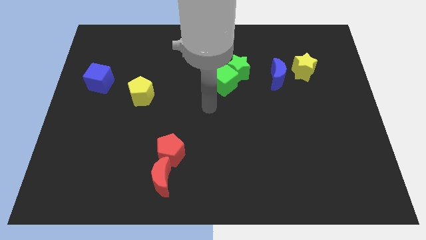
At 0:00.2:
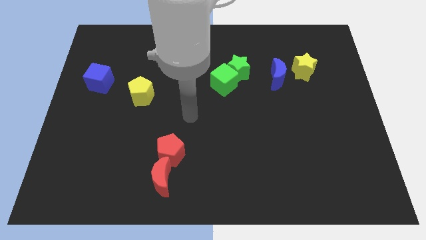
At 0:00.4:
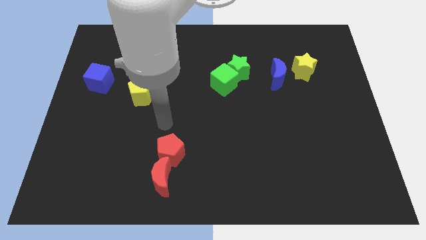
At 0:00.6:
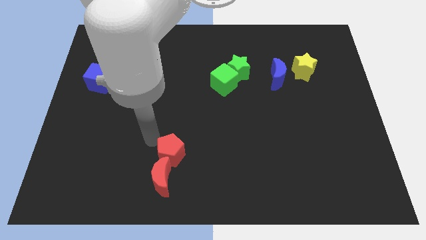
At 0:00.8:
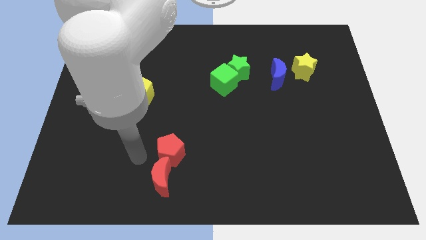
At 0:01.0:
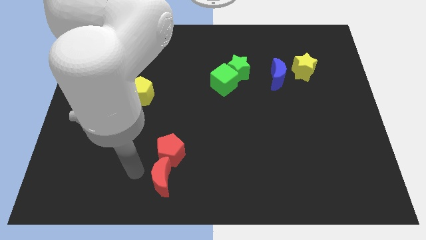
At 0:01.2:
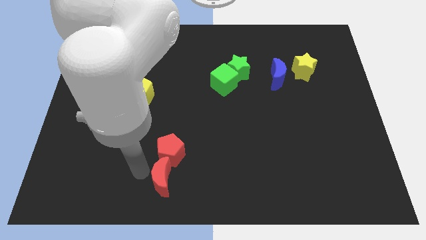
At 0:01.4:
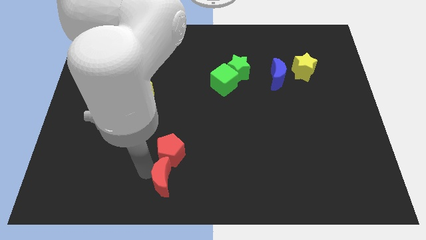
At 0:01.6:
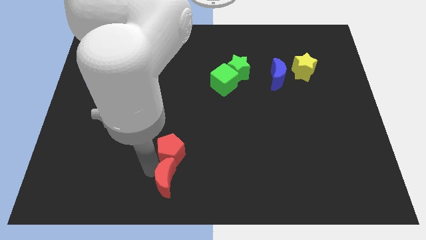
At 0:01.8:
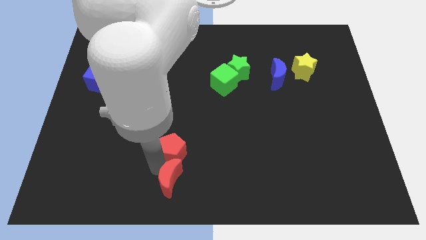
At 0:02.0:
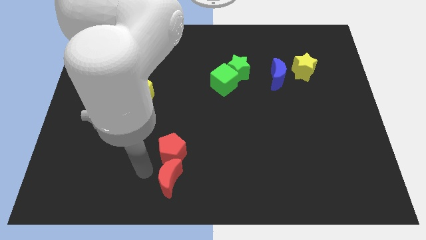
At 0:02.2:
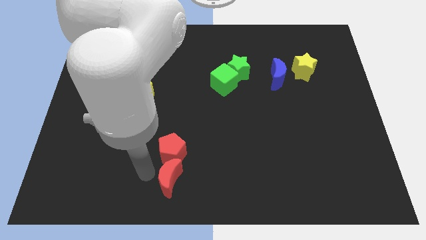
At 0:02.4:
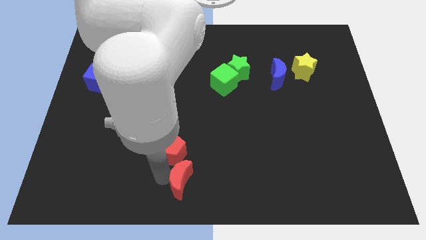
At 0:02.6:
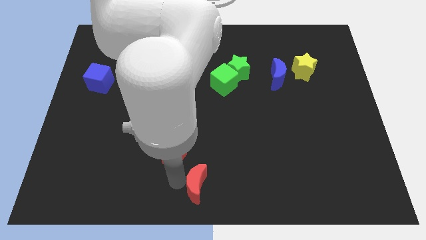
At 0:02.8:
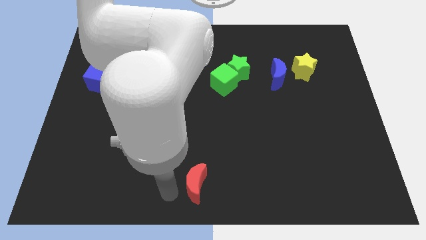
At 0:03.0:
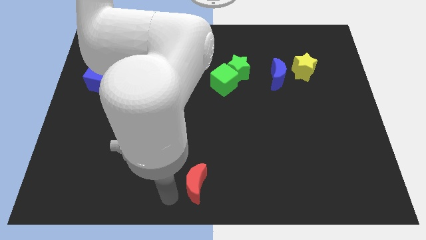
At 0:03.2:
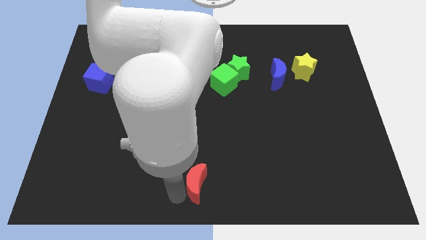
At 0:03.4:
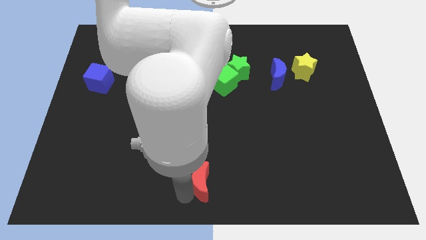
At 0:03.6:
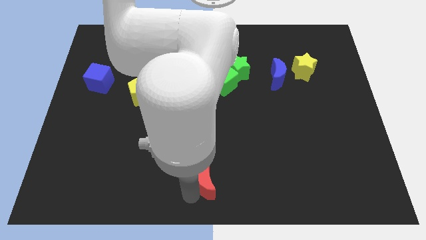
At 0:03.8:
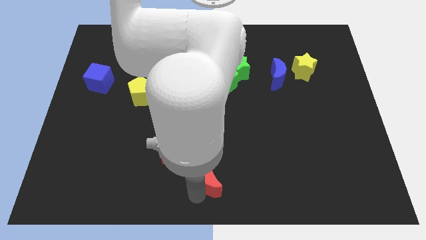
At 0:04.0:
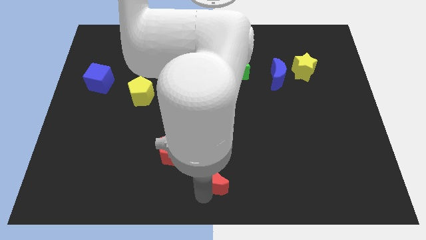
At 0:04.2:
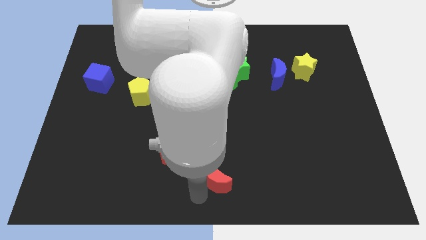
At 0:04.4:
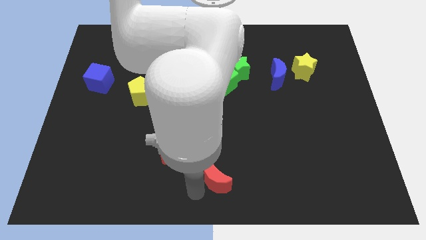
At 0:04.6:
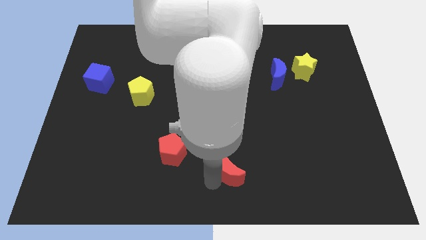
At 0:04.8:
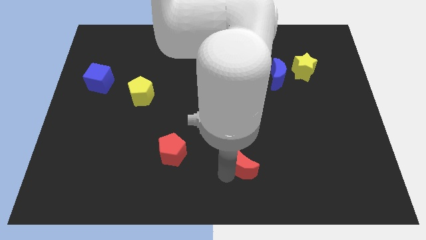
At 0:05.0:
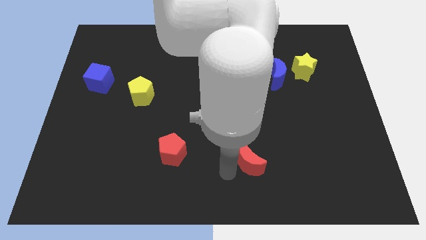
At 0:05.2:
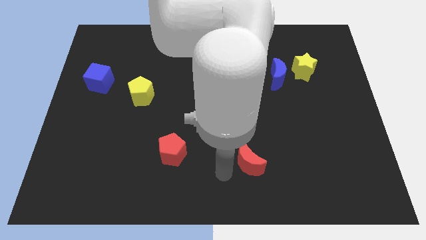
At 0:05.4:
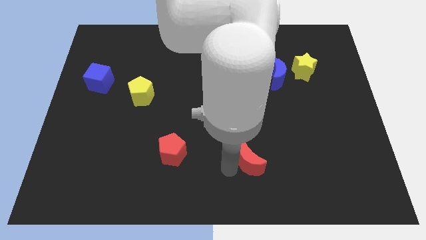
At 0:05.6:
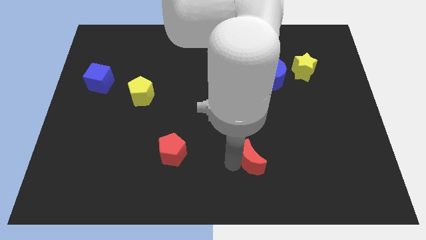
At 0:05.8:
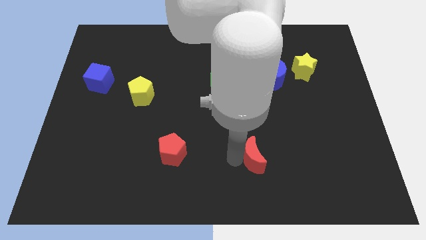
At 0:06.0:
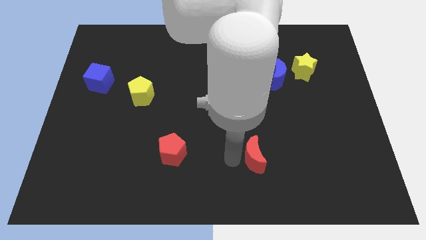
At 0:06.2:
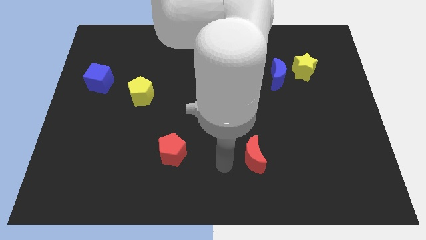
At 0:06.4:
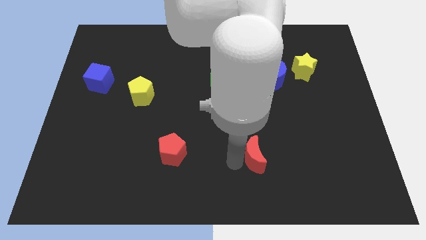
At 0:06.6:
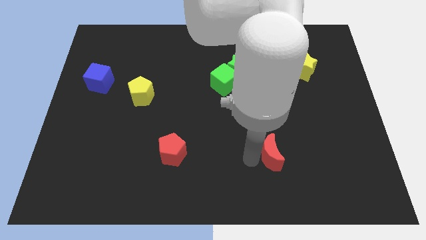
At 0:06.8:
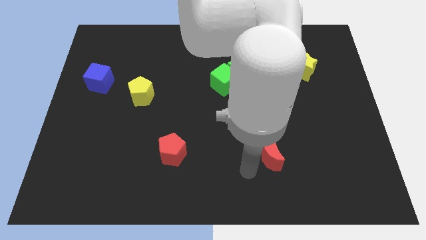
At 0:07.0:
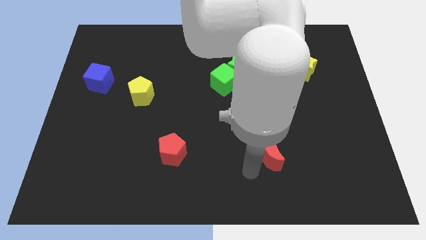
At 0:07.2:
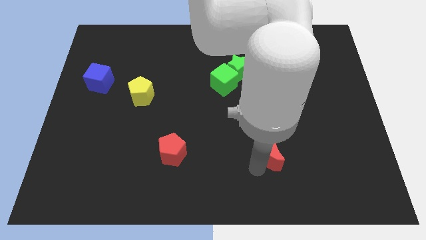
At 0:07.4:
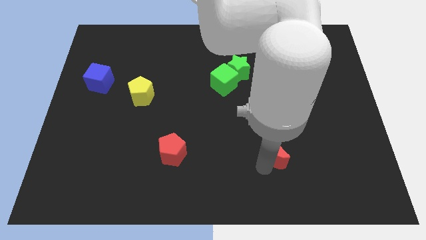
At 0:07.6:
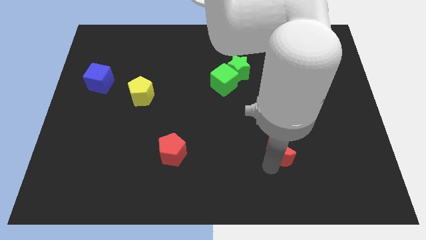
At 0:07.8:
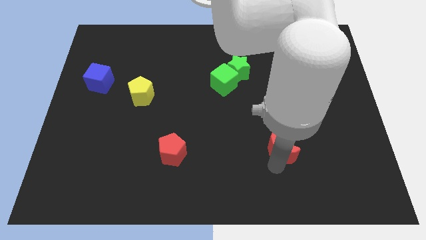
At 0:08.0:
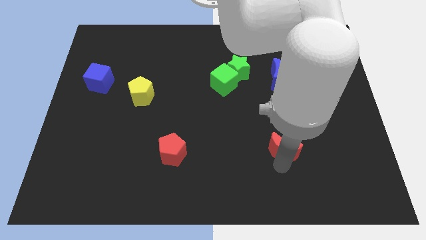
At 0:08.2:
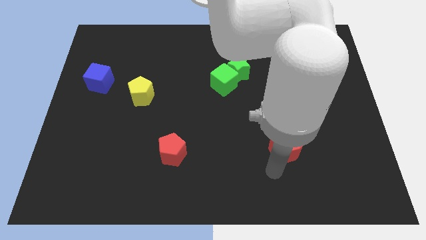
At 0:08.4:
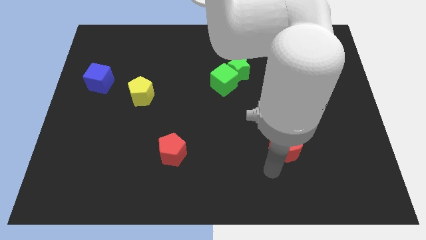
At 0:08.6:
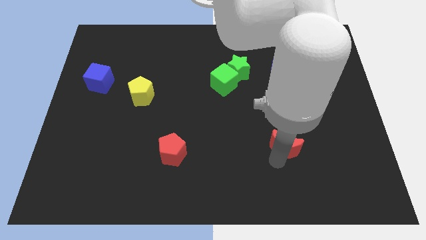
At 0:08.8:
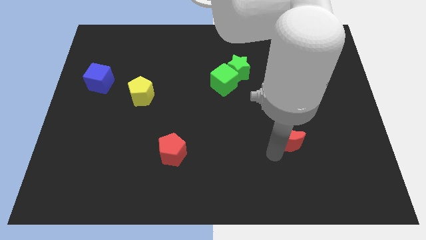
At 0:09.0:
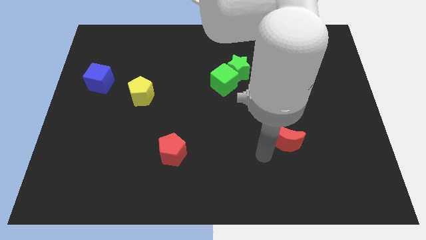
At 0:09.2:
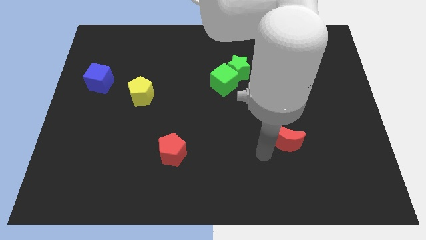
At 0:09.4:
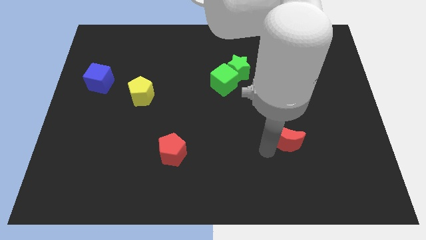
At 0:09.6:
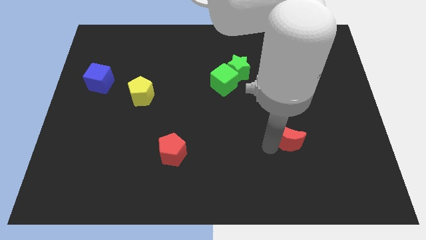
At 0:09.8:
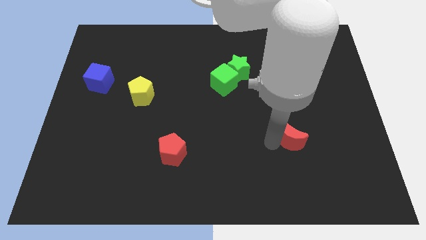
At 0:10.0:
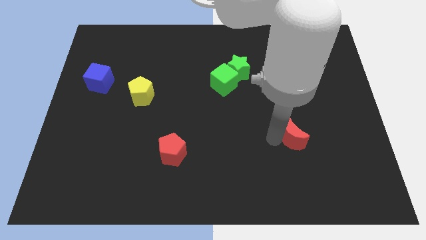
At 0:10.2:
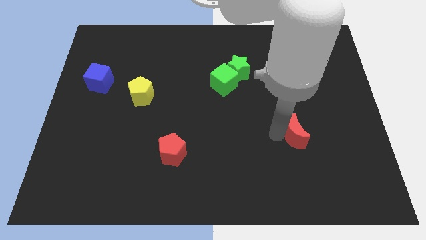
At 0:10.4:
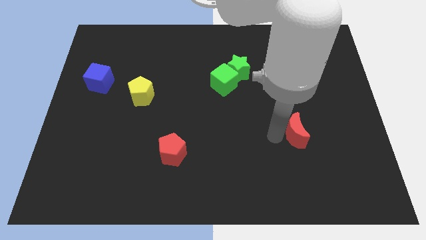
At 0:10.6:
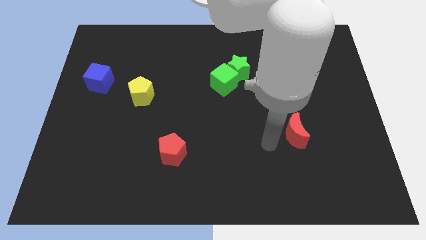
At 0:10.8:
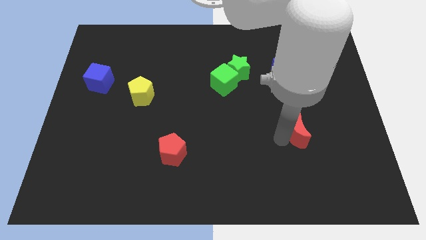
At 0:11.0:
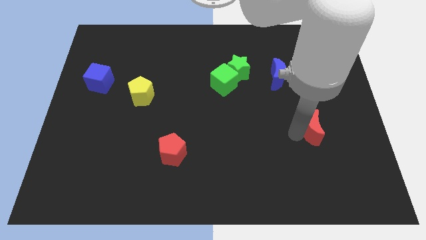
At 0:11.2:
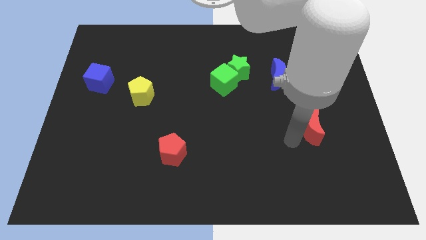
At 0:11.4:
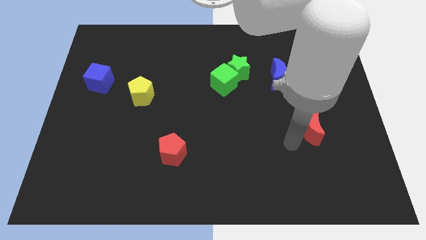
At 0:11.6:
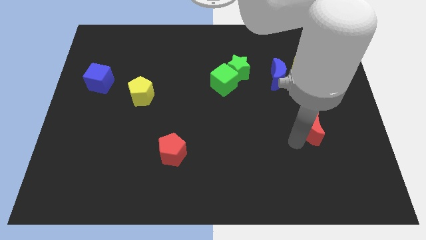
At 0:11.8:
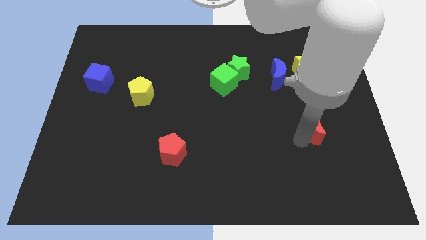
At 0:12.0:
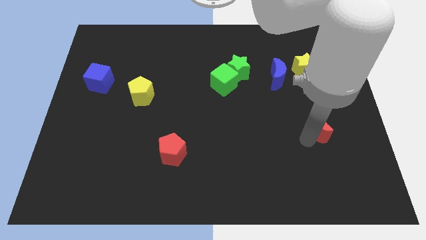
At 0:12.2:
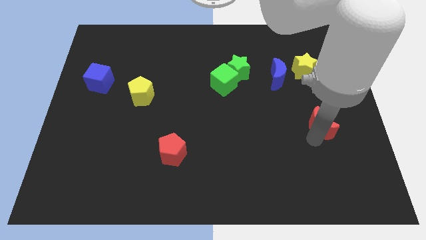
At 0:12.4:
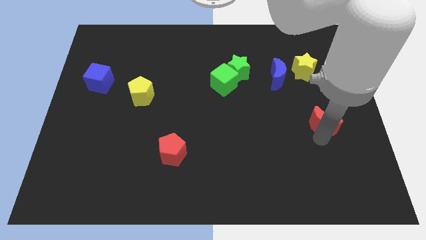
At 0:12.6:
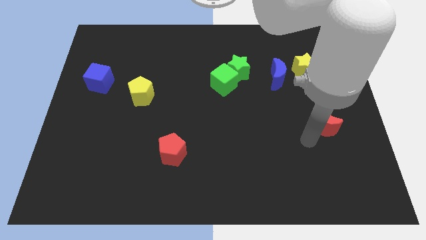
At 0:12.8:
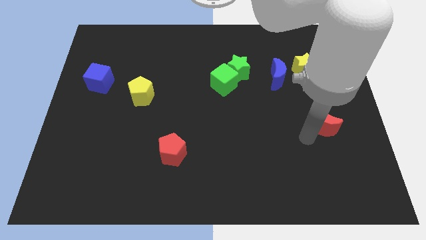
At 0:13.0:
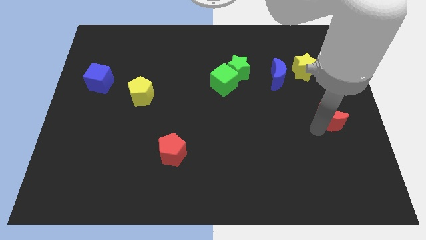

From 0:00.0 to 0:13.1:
slide the red moon to the right side of the board
